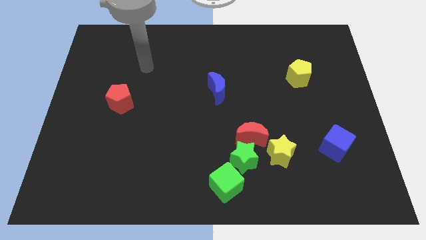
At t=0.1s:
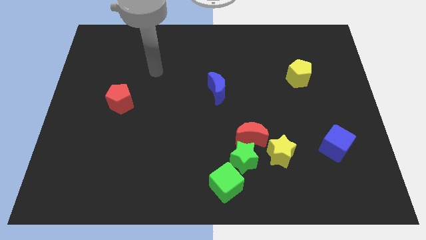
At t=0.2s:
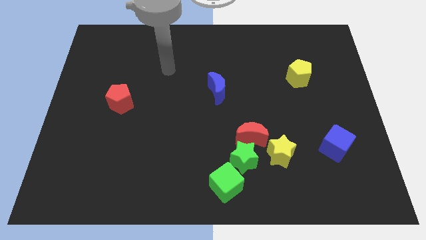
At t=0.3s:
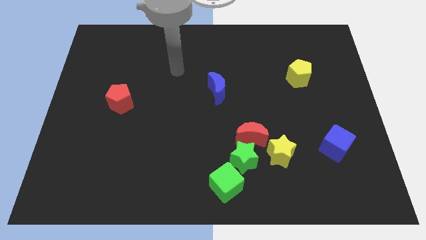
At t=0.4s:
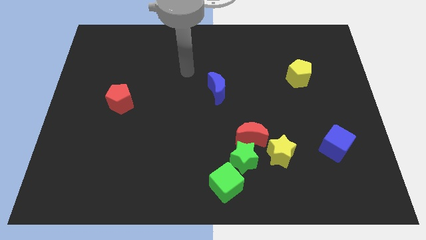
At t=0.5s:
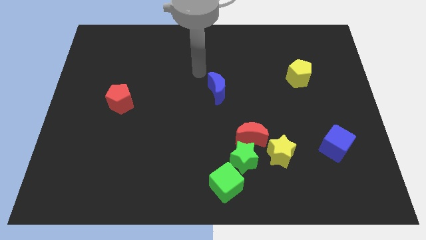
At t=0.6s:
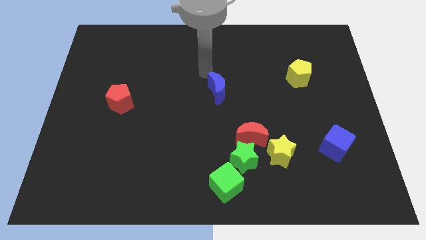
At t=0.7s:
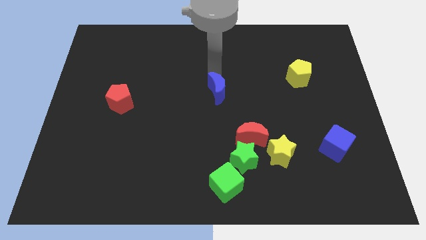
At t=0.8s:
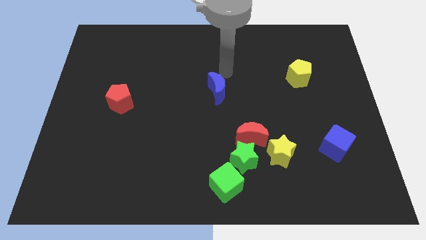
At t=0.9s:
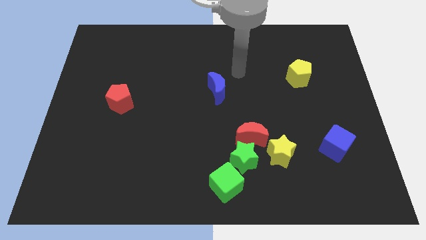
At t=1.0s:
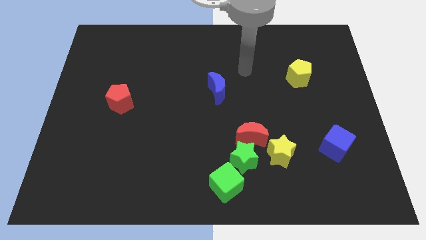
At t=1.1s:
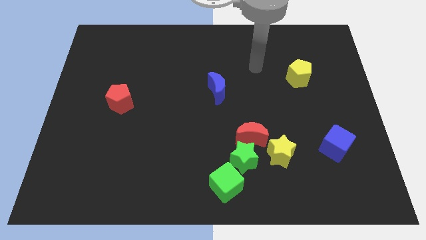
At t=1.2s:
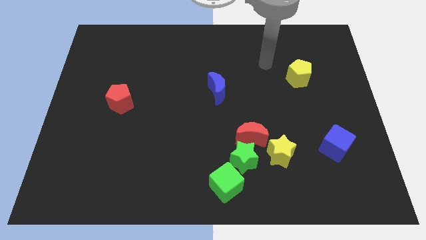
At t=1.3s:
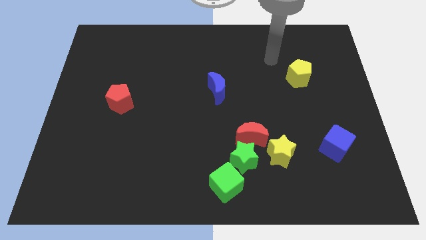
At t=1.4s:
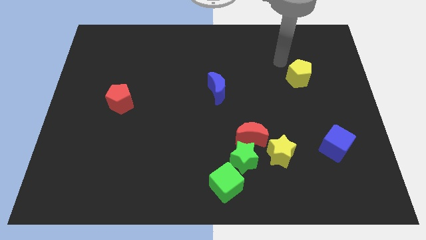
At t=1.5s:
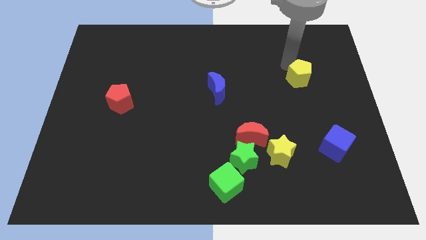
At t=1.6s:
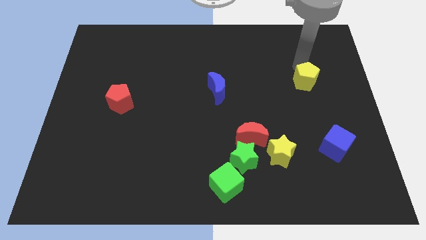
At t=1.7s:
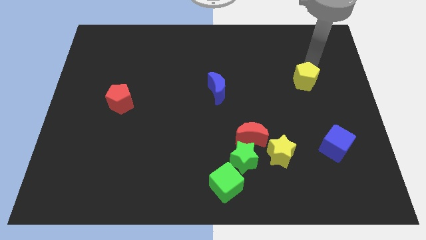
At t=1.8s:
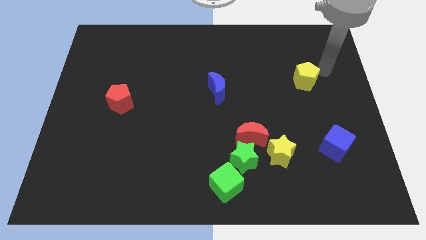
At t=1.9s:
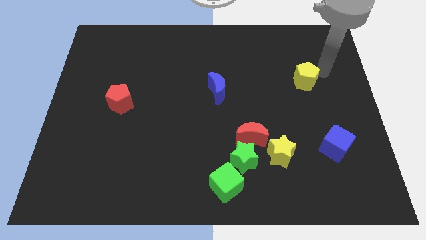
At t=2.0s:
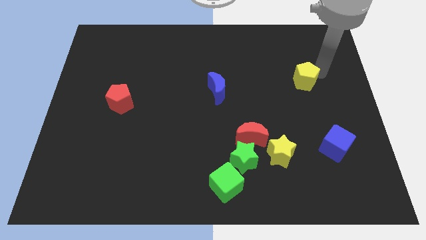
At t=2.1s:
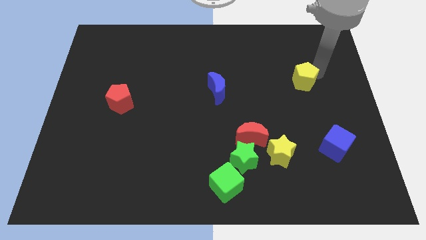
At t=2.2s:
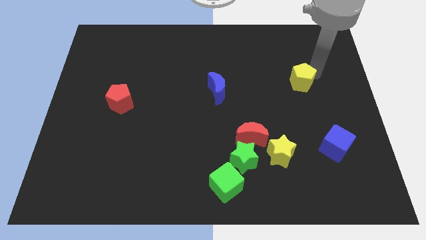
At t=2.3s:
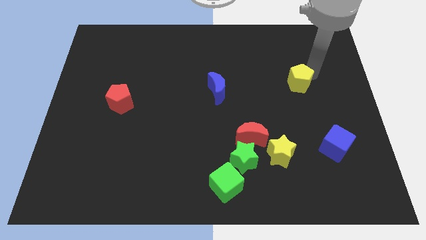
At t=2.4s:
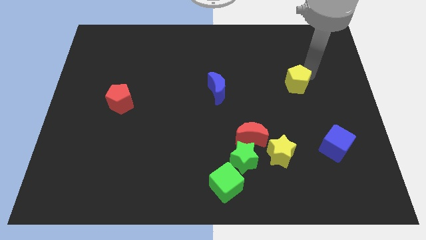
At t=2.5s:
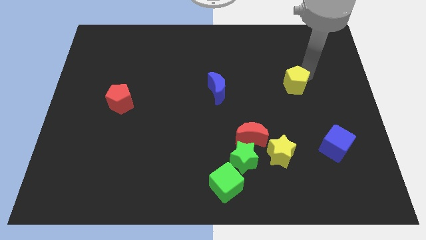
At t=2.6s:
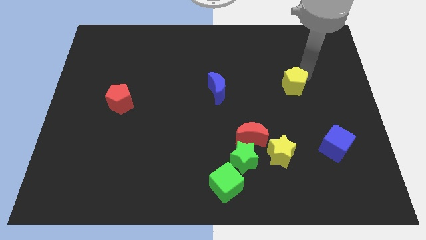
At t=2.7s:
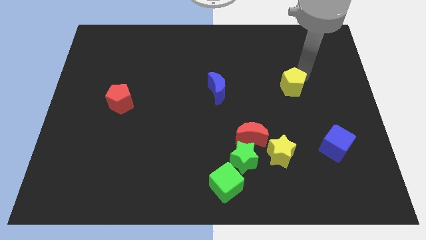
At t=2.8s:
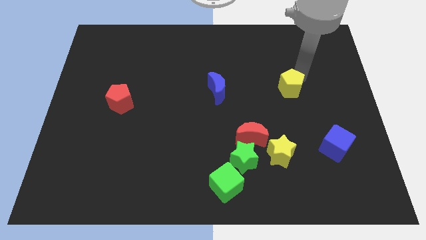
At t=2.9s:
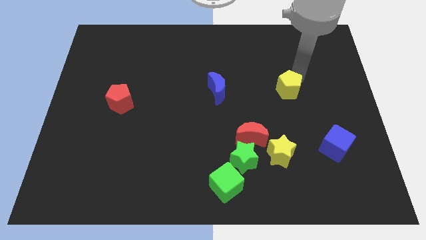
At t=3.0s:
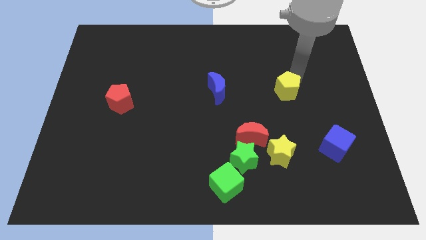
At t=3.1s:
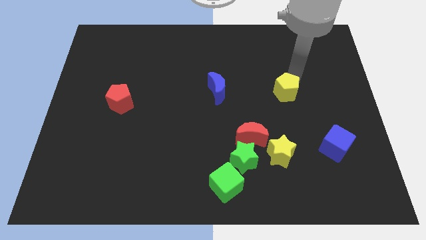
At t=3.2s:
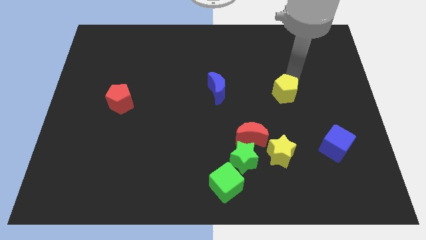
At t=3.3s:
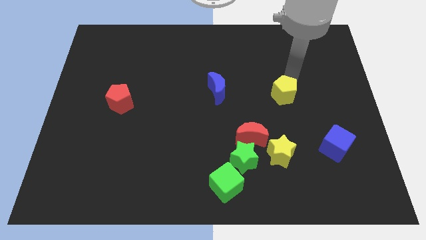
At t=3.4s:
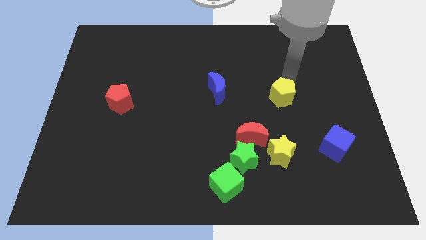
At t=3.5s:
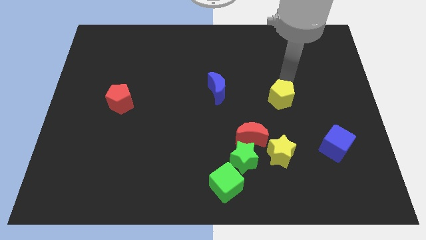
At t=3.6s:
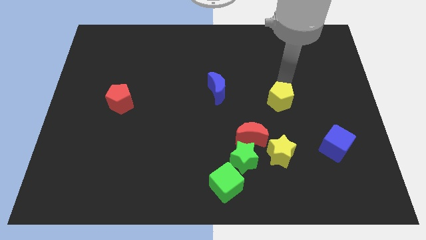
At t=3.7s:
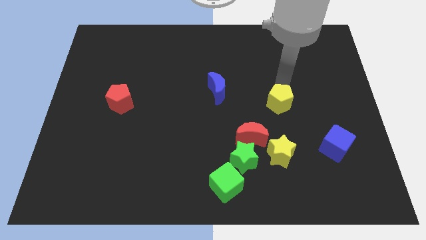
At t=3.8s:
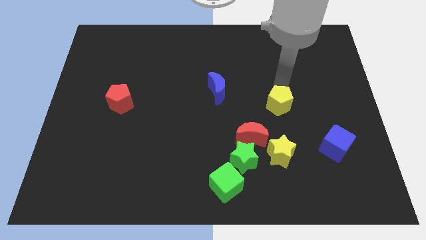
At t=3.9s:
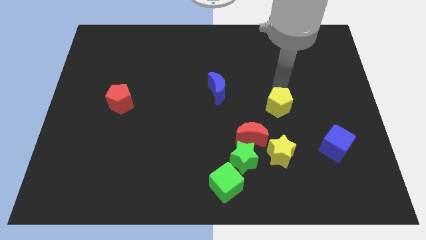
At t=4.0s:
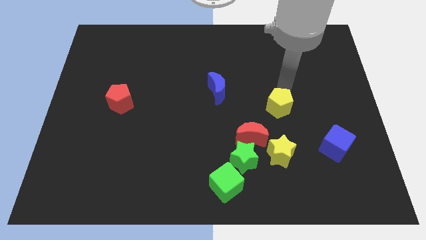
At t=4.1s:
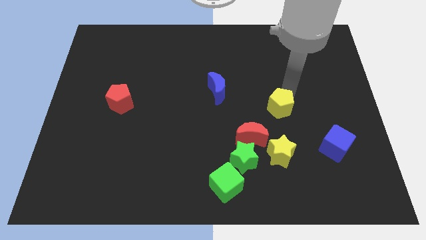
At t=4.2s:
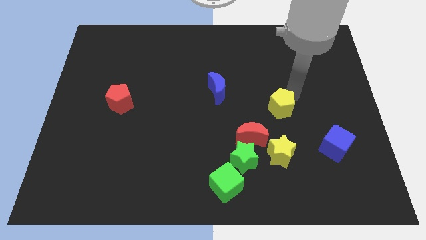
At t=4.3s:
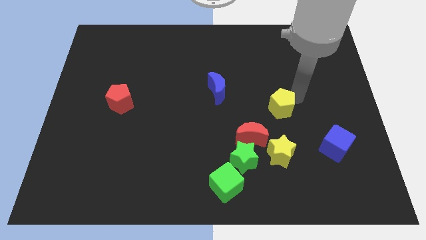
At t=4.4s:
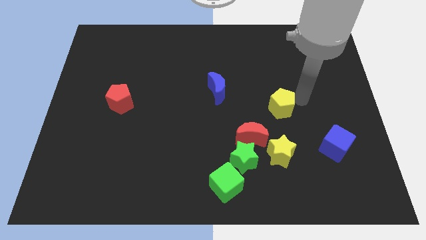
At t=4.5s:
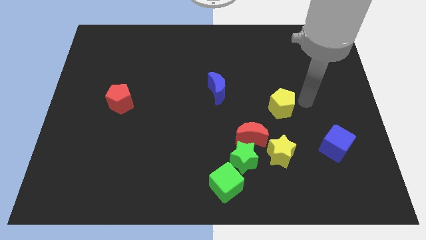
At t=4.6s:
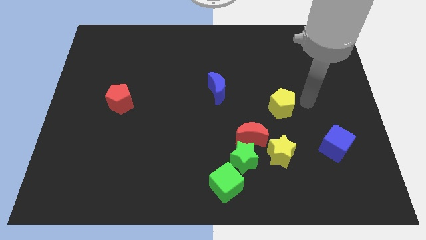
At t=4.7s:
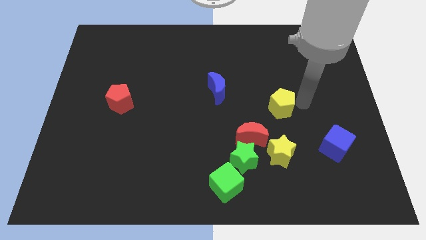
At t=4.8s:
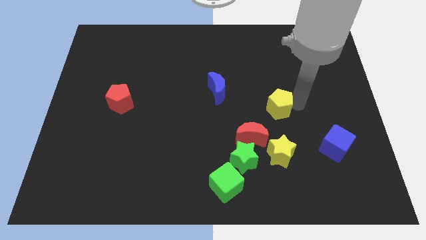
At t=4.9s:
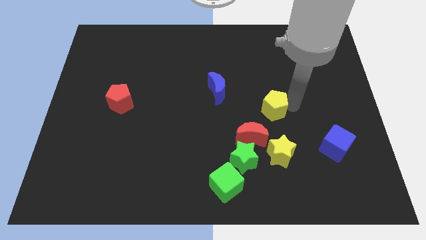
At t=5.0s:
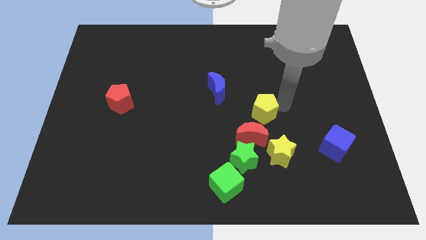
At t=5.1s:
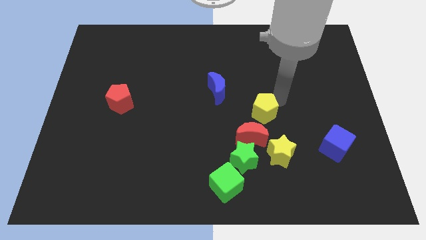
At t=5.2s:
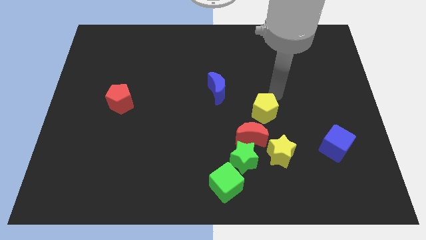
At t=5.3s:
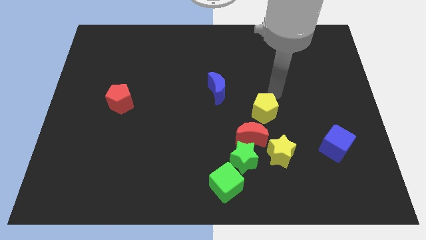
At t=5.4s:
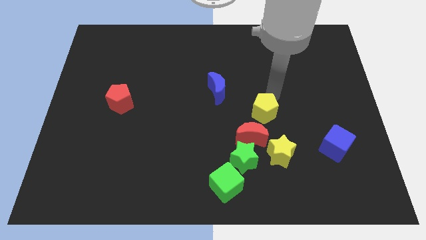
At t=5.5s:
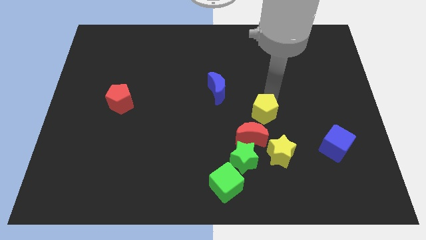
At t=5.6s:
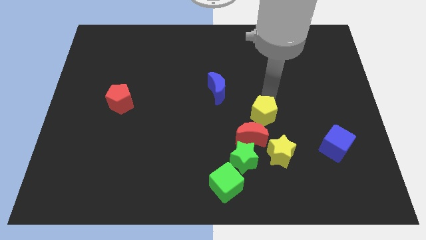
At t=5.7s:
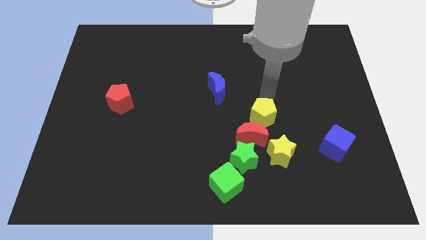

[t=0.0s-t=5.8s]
put the yellow pentagon close to the red moon

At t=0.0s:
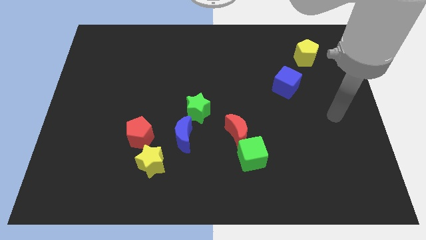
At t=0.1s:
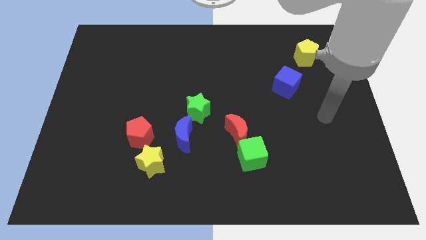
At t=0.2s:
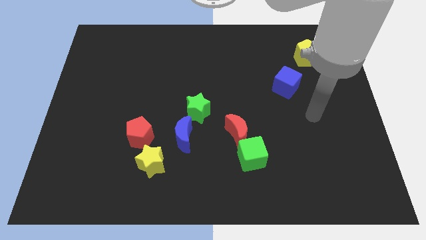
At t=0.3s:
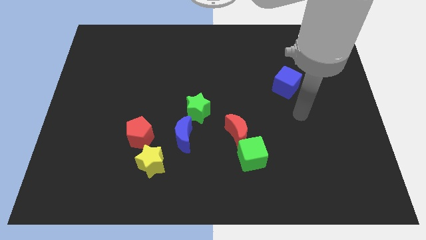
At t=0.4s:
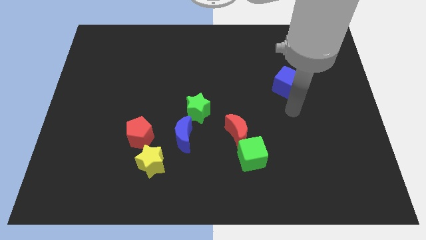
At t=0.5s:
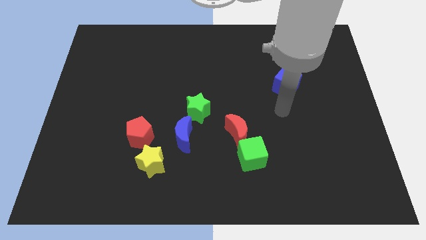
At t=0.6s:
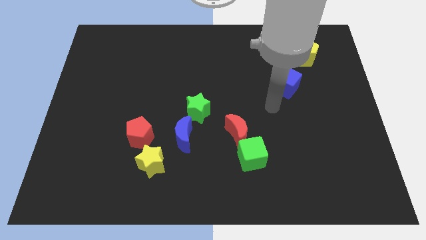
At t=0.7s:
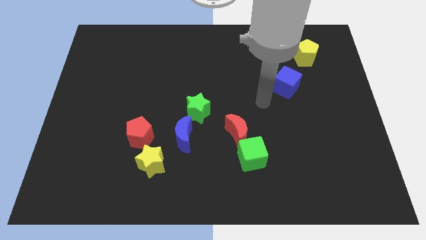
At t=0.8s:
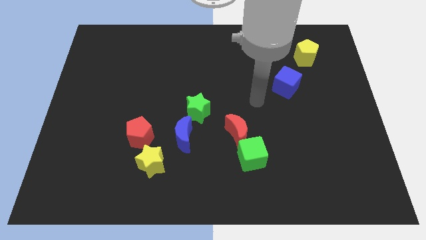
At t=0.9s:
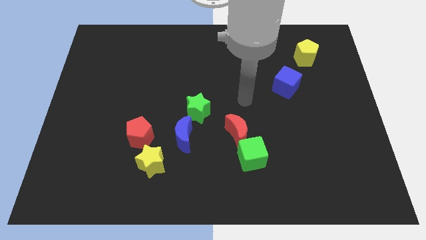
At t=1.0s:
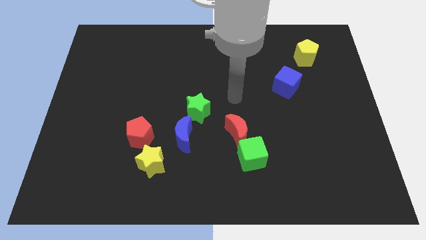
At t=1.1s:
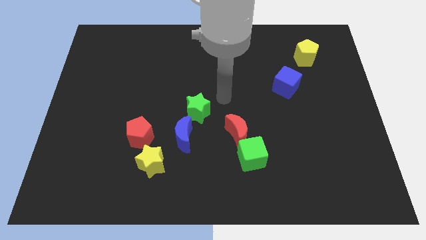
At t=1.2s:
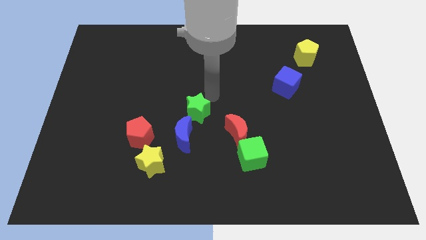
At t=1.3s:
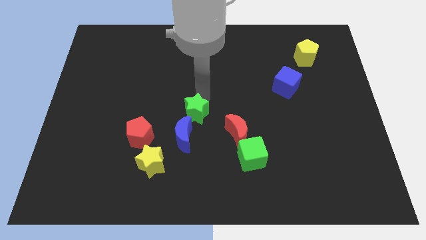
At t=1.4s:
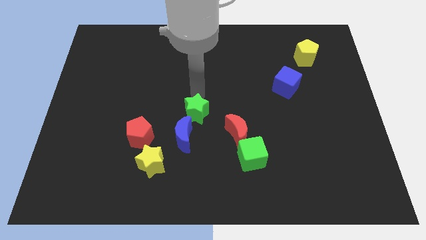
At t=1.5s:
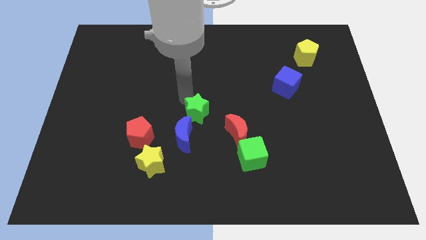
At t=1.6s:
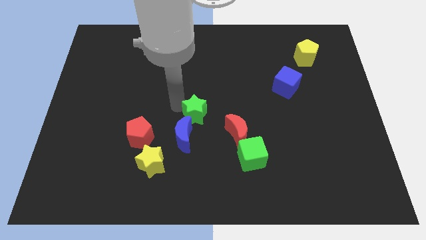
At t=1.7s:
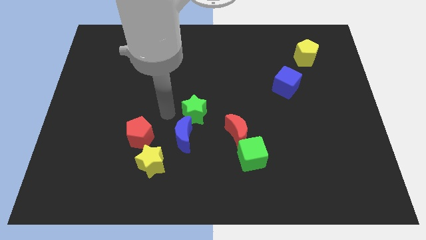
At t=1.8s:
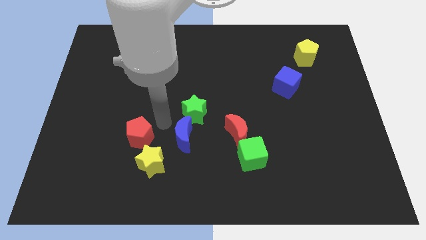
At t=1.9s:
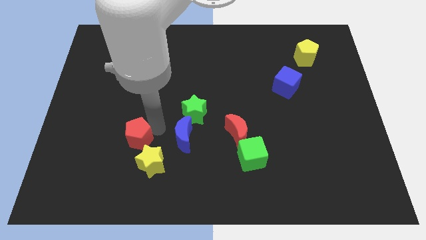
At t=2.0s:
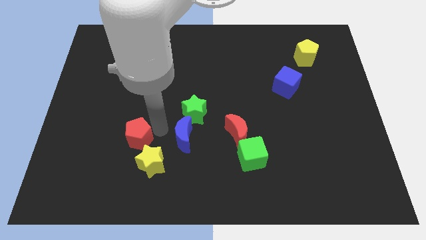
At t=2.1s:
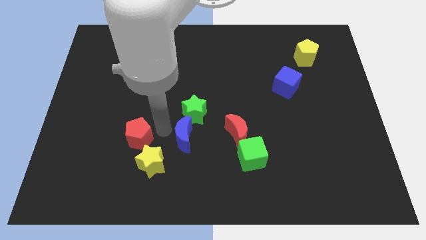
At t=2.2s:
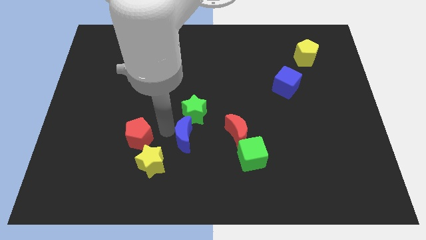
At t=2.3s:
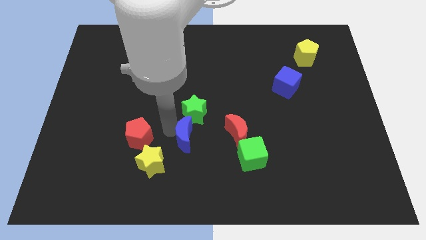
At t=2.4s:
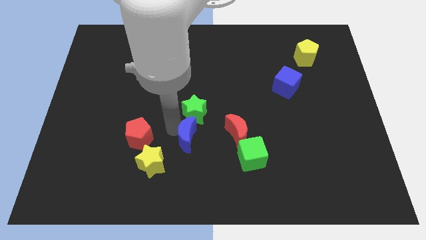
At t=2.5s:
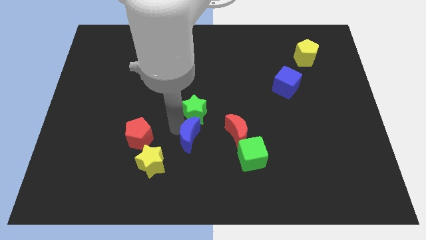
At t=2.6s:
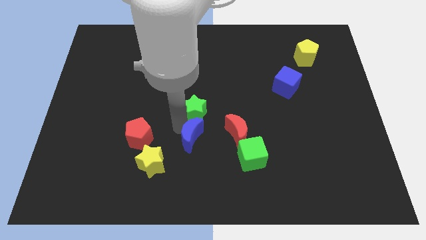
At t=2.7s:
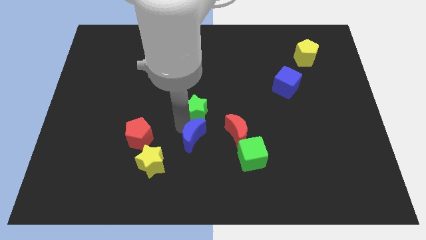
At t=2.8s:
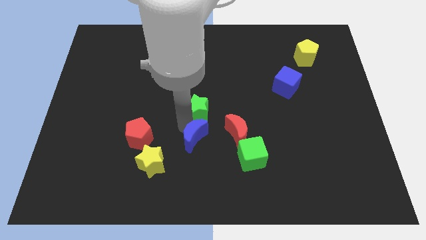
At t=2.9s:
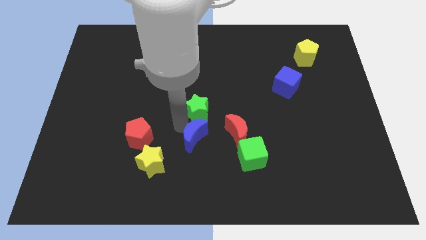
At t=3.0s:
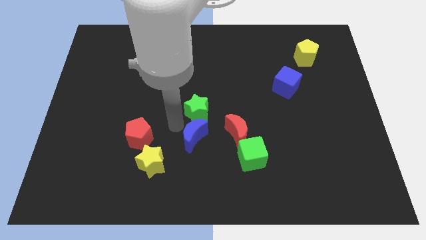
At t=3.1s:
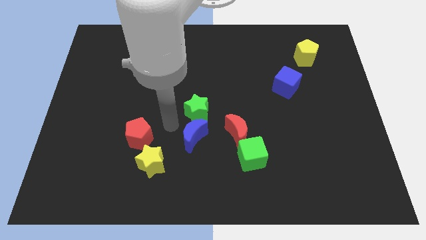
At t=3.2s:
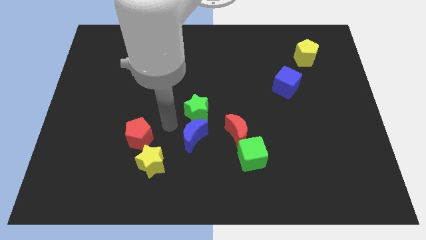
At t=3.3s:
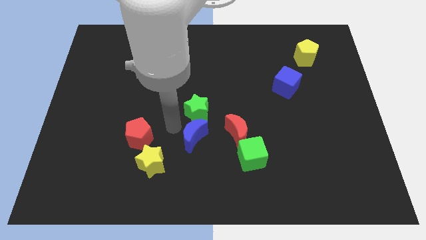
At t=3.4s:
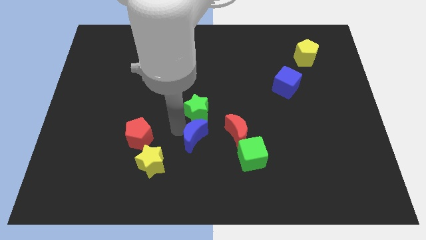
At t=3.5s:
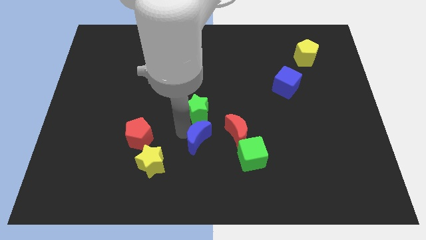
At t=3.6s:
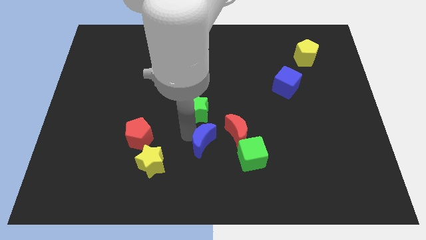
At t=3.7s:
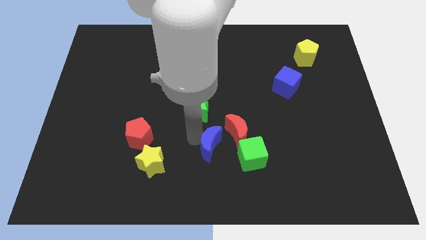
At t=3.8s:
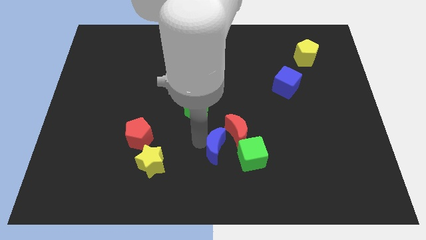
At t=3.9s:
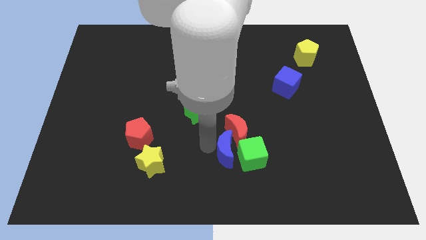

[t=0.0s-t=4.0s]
move the blue moon close to the green cube
